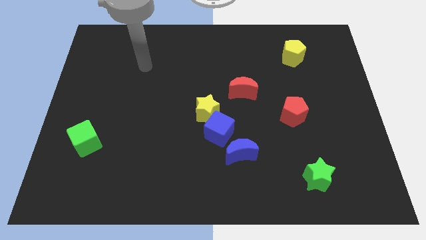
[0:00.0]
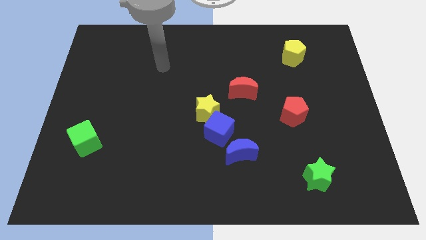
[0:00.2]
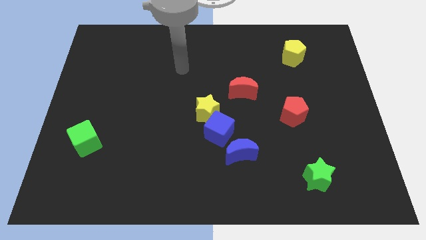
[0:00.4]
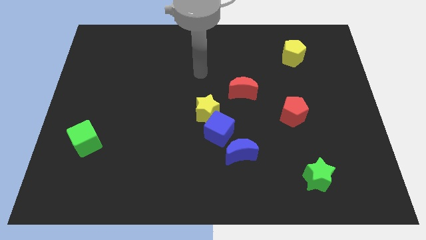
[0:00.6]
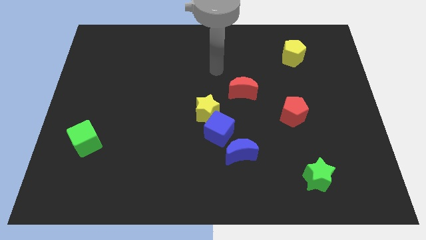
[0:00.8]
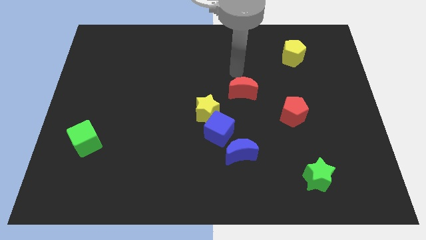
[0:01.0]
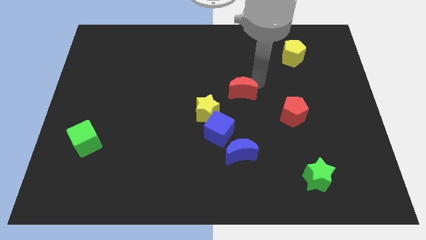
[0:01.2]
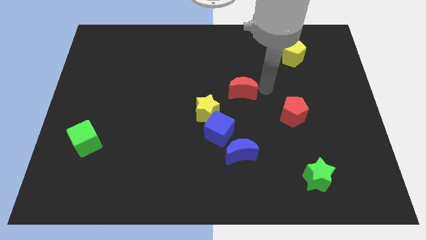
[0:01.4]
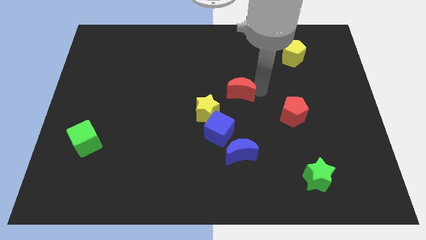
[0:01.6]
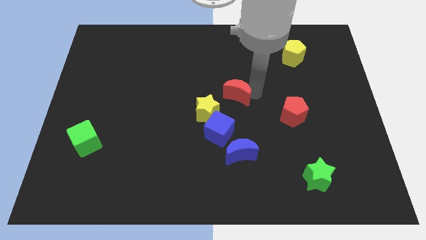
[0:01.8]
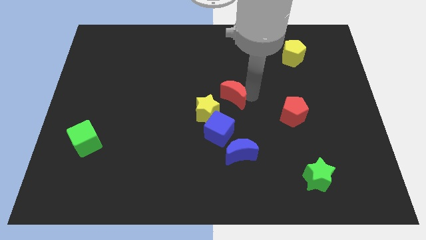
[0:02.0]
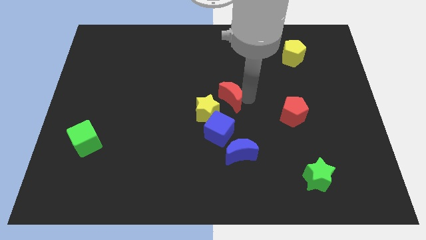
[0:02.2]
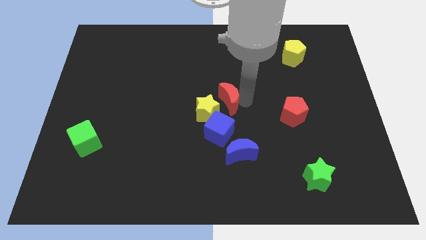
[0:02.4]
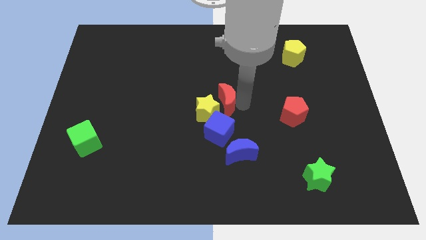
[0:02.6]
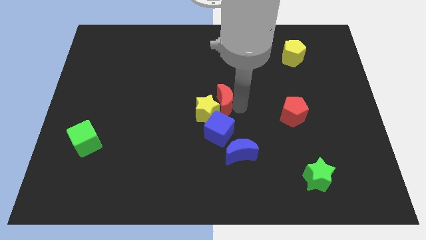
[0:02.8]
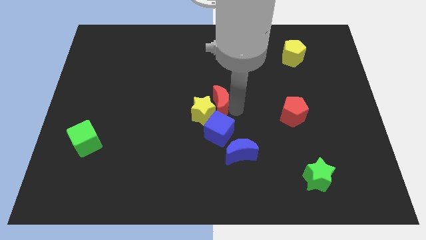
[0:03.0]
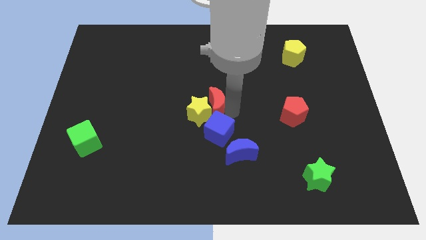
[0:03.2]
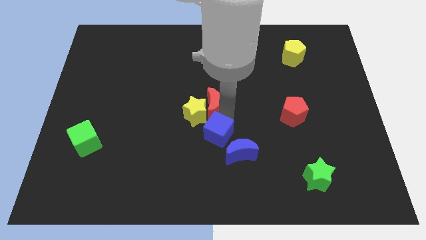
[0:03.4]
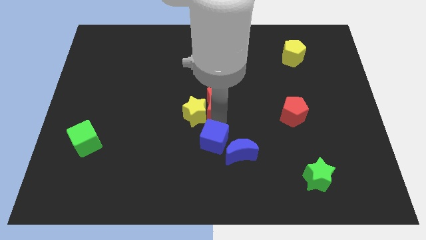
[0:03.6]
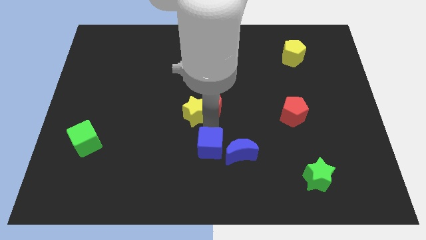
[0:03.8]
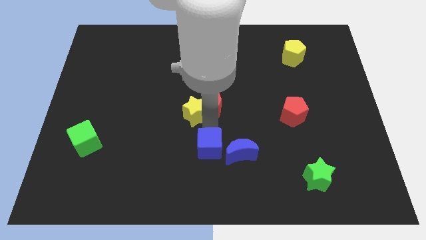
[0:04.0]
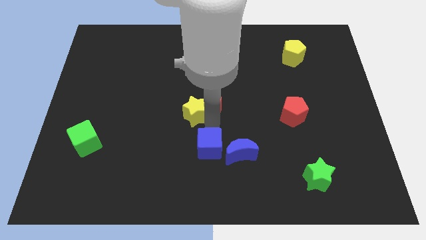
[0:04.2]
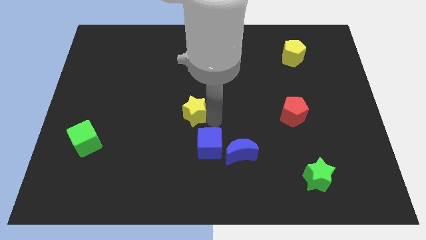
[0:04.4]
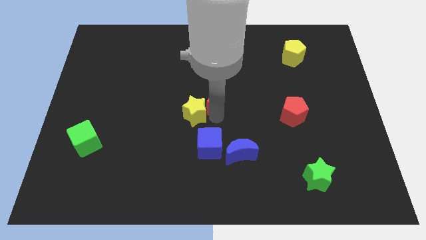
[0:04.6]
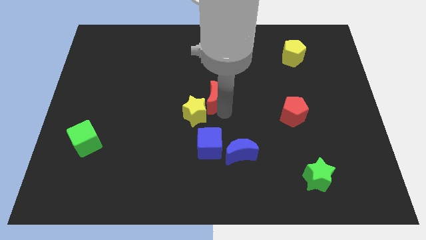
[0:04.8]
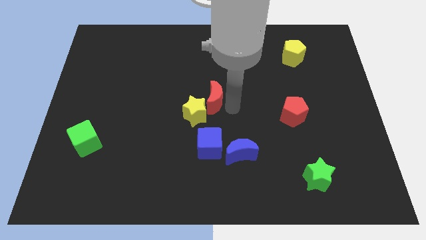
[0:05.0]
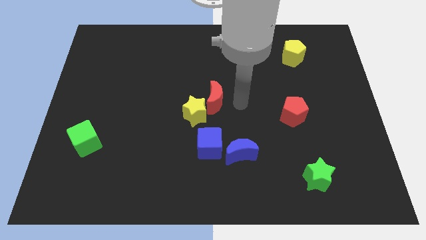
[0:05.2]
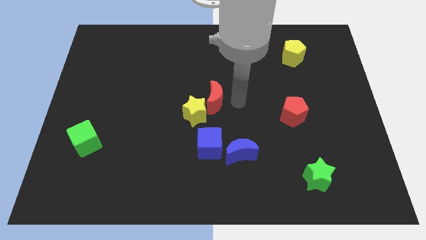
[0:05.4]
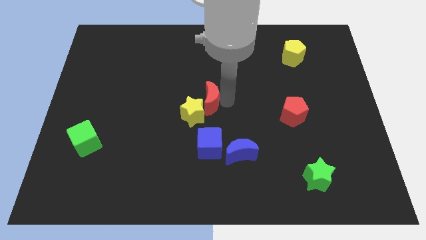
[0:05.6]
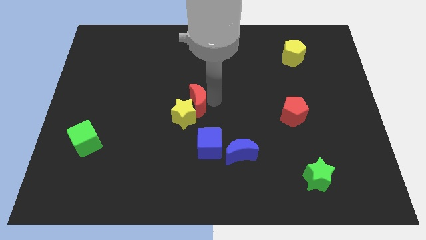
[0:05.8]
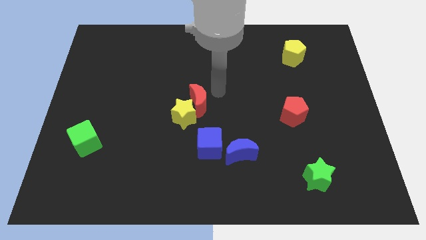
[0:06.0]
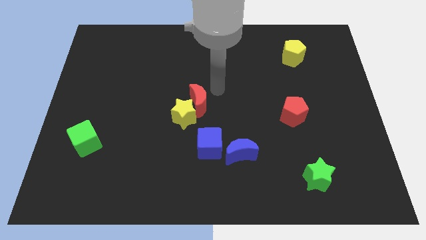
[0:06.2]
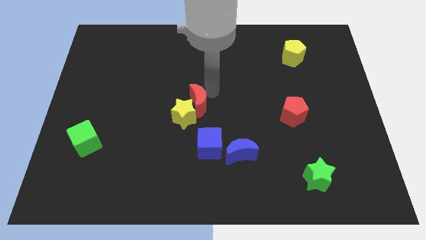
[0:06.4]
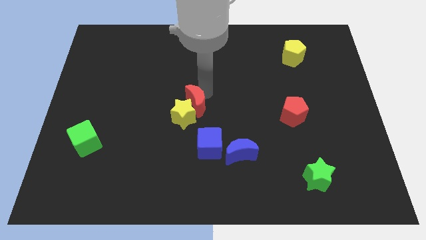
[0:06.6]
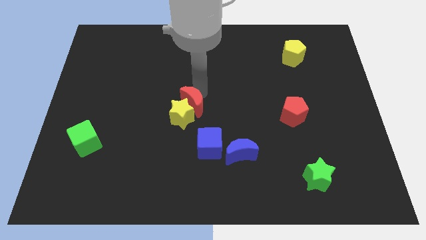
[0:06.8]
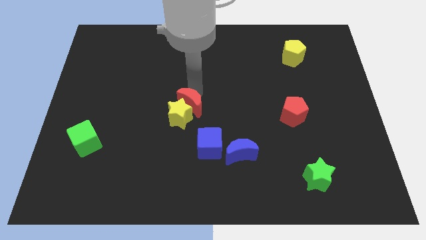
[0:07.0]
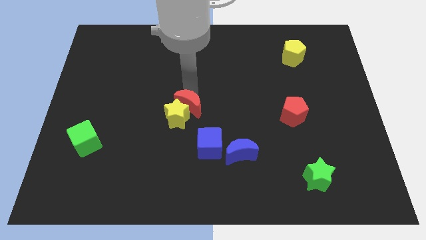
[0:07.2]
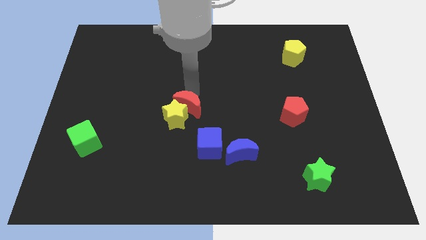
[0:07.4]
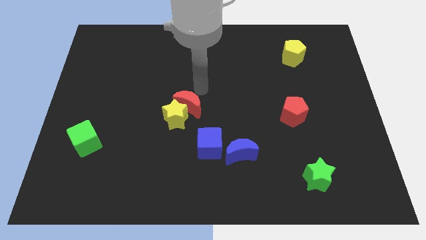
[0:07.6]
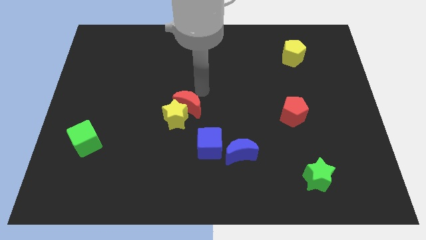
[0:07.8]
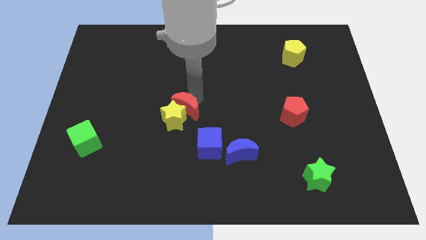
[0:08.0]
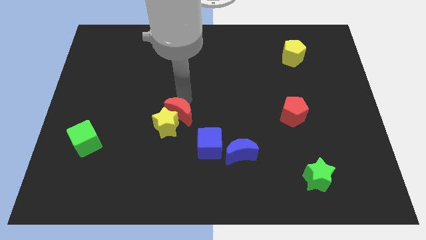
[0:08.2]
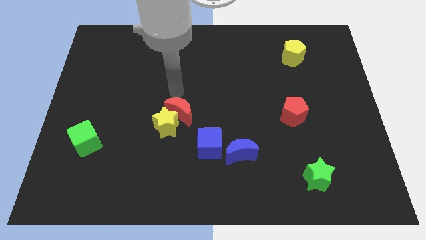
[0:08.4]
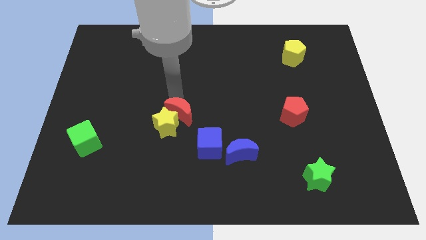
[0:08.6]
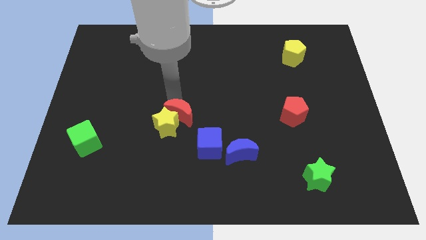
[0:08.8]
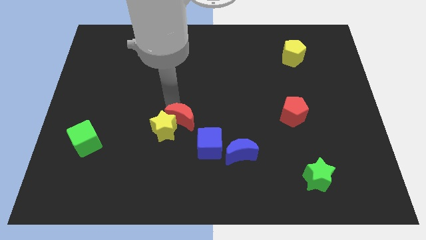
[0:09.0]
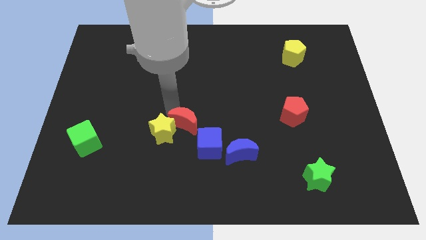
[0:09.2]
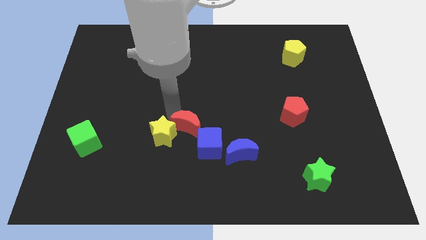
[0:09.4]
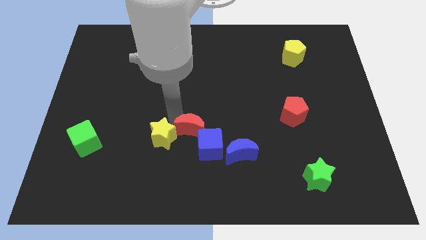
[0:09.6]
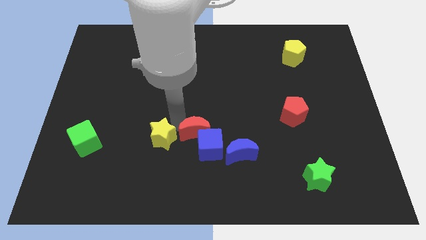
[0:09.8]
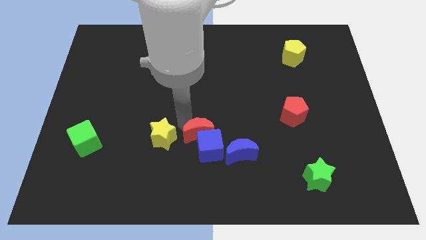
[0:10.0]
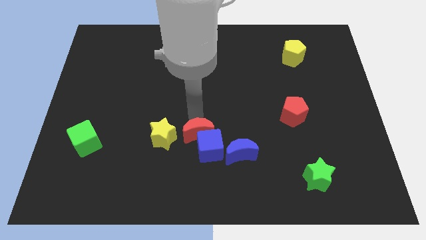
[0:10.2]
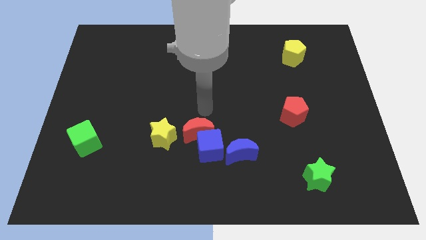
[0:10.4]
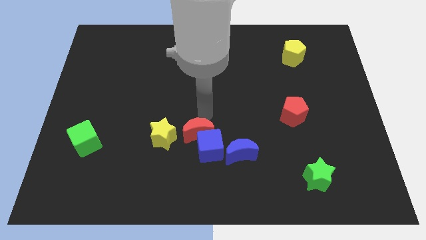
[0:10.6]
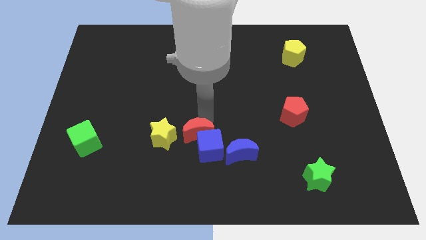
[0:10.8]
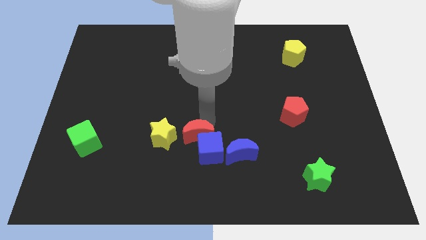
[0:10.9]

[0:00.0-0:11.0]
push the red moon to the left side of the blue moon

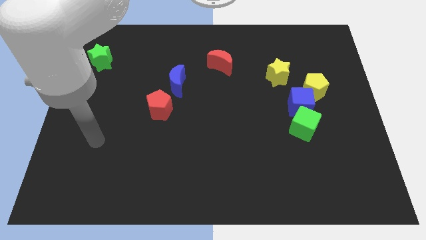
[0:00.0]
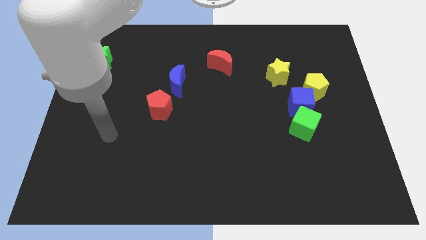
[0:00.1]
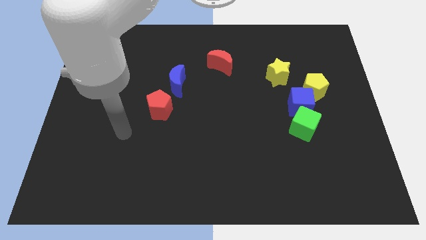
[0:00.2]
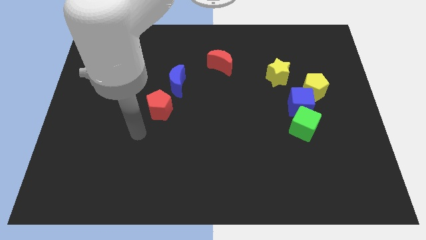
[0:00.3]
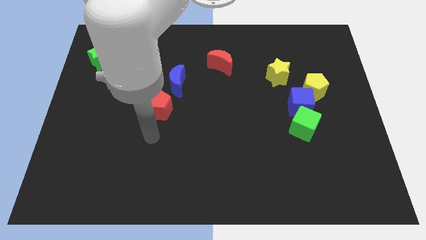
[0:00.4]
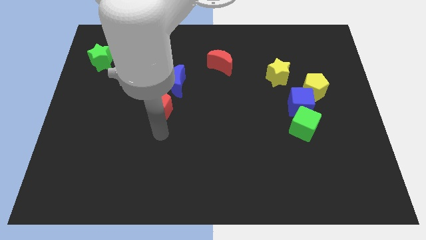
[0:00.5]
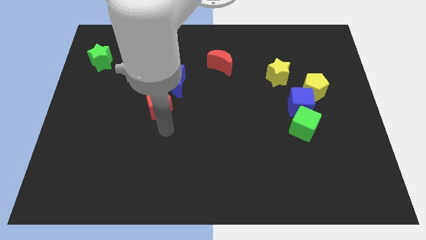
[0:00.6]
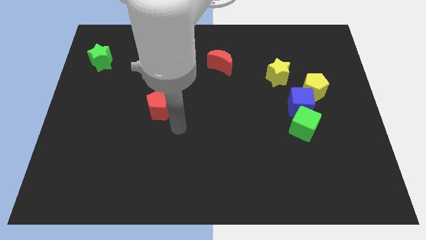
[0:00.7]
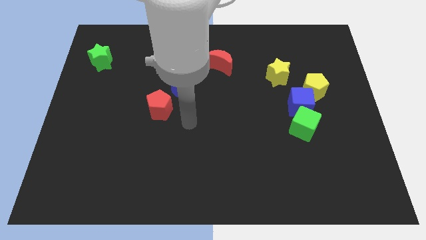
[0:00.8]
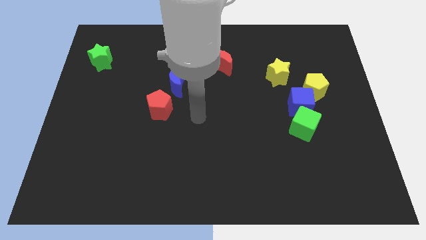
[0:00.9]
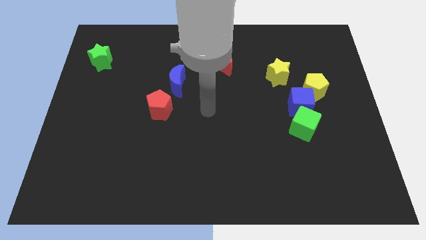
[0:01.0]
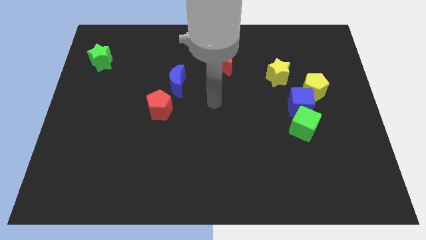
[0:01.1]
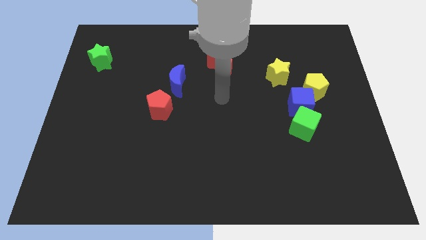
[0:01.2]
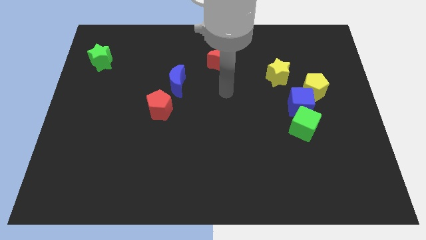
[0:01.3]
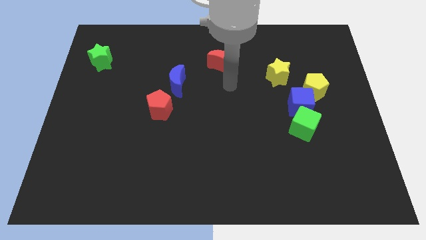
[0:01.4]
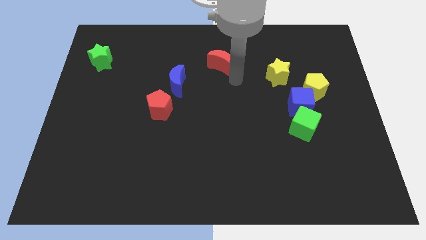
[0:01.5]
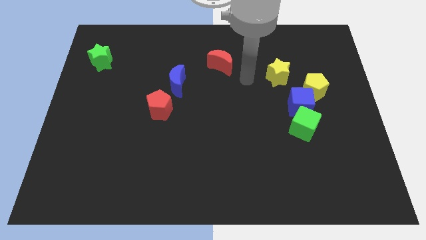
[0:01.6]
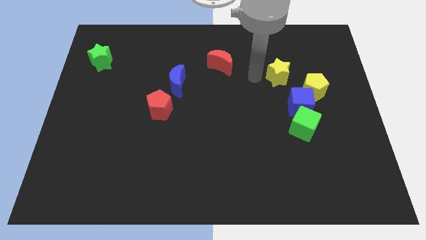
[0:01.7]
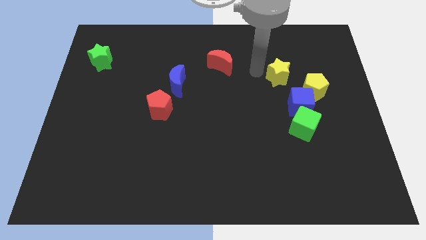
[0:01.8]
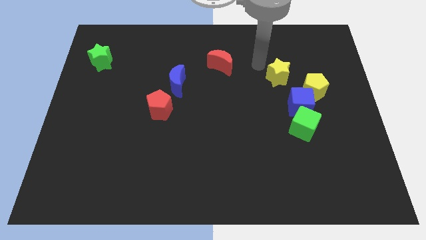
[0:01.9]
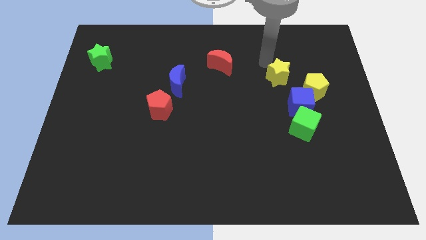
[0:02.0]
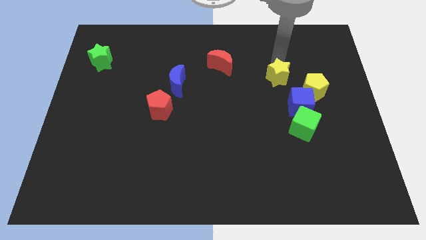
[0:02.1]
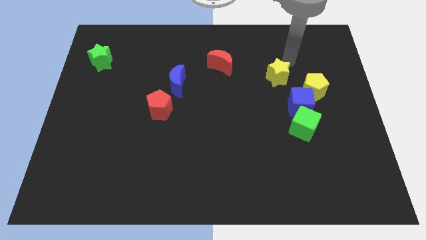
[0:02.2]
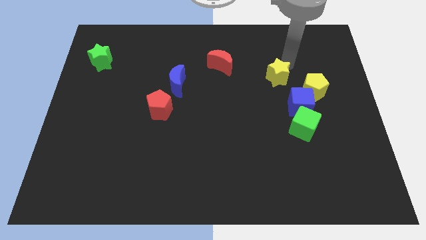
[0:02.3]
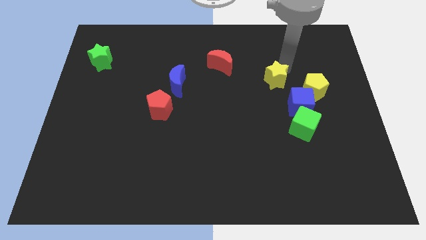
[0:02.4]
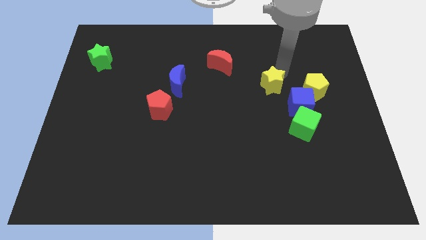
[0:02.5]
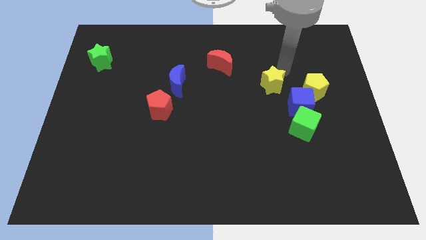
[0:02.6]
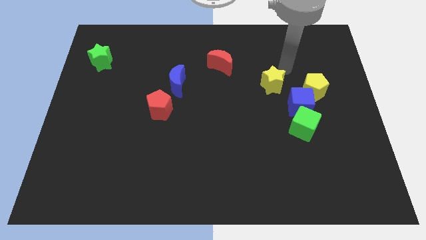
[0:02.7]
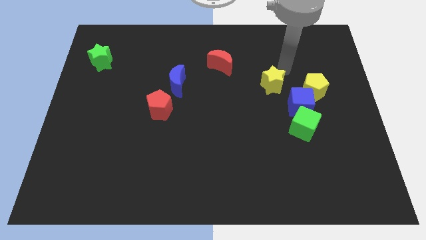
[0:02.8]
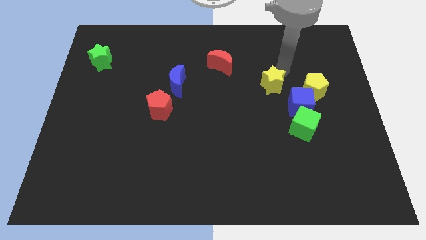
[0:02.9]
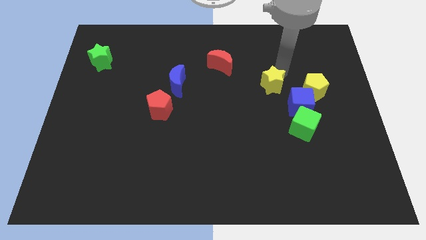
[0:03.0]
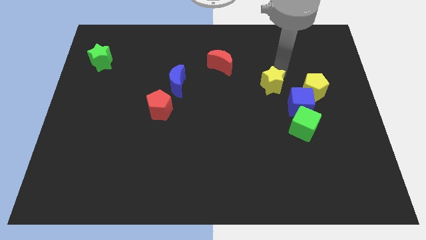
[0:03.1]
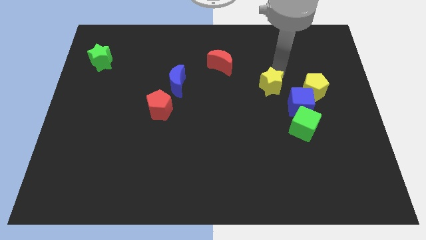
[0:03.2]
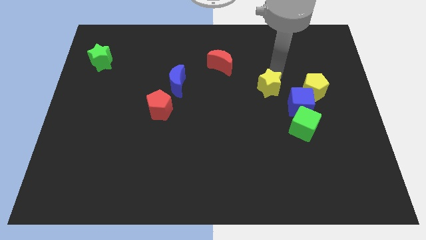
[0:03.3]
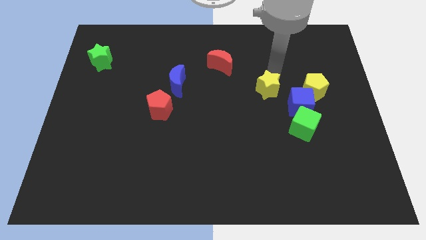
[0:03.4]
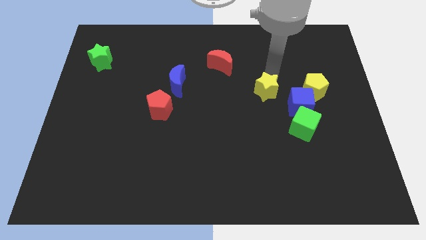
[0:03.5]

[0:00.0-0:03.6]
slide the yellow star left of the blue cube
